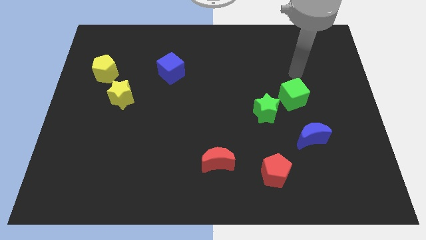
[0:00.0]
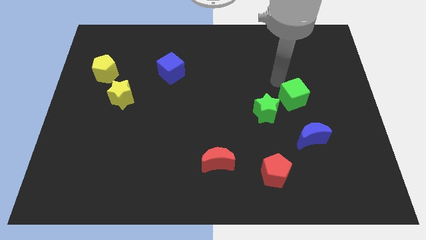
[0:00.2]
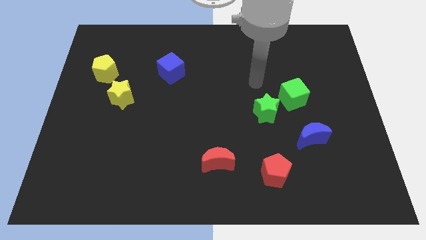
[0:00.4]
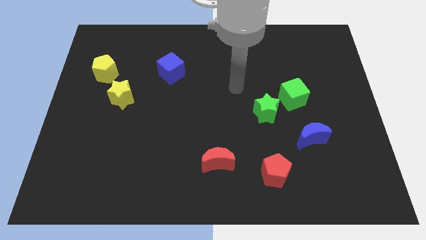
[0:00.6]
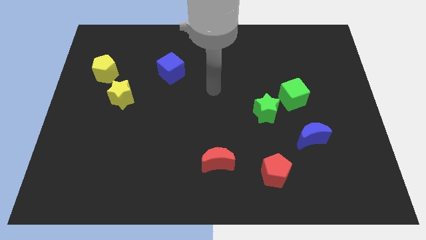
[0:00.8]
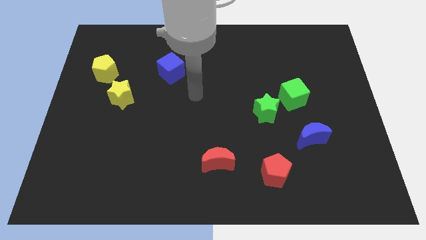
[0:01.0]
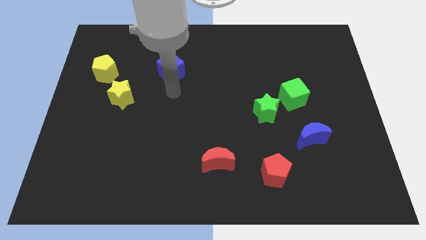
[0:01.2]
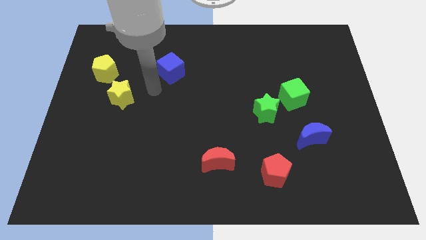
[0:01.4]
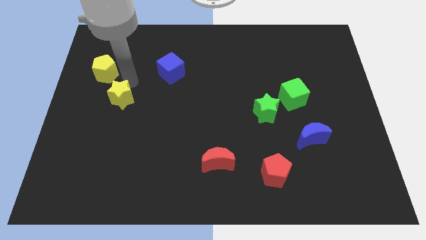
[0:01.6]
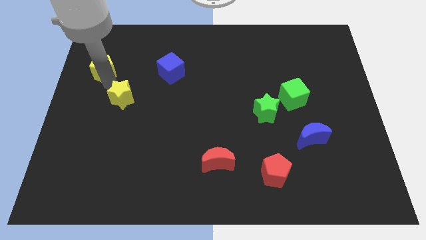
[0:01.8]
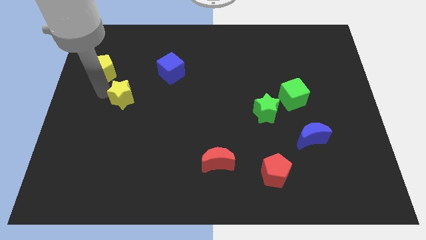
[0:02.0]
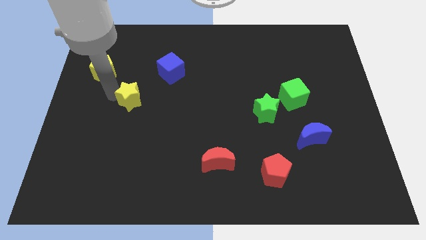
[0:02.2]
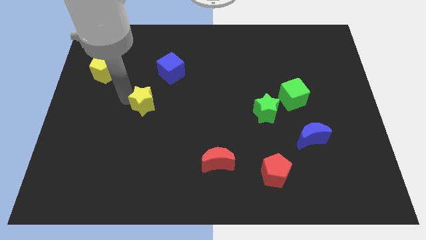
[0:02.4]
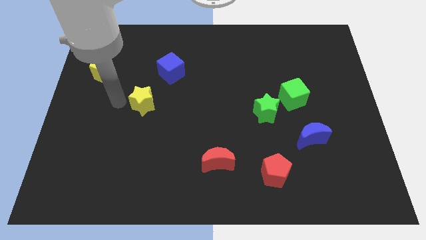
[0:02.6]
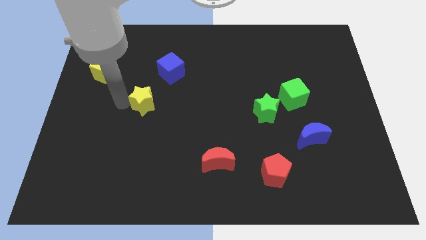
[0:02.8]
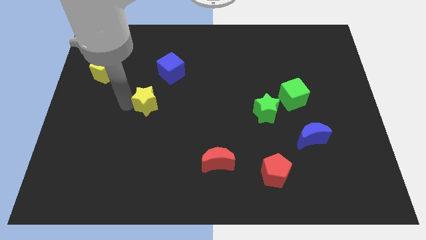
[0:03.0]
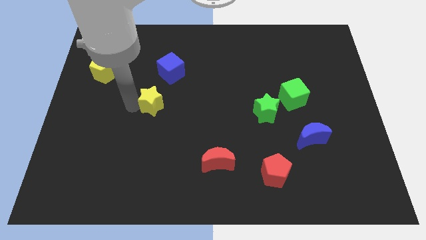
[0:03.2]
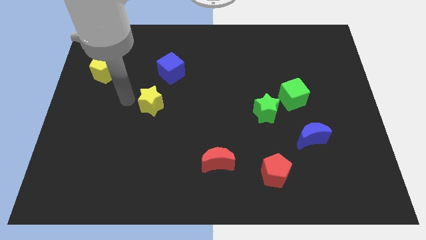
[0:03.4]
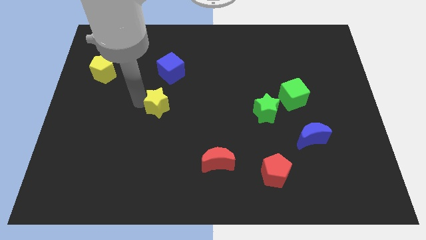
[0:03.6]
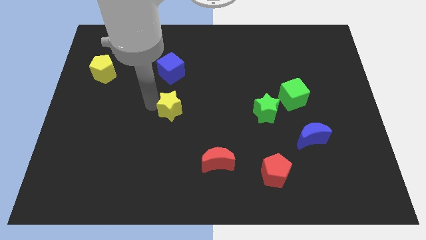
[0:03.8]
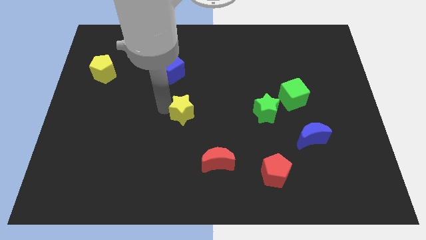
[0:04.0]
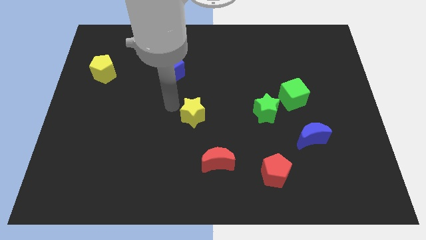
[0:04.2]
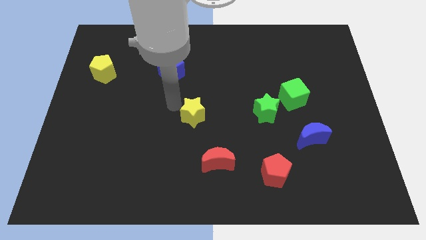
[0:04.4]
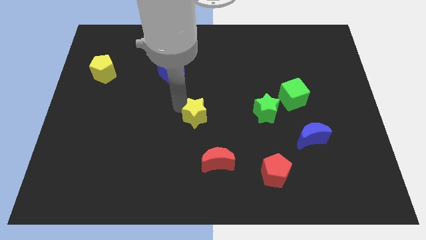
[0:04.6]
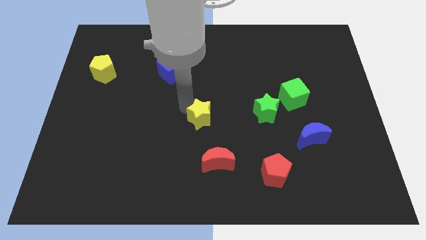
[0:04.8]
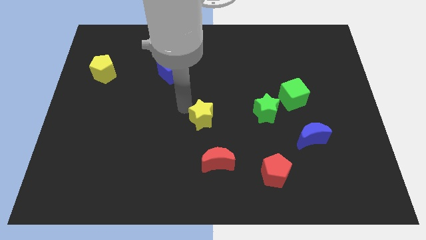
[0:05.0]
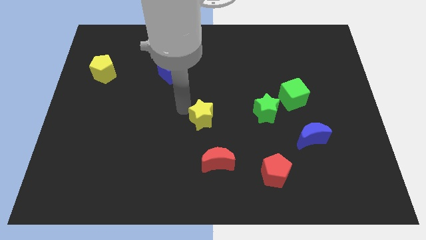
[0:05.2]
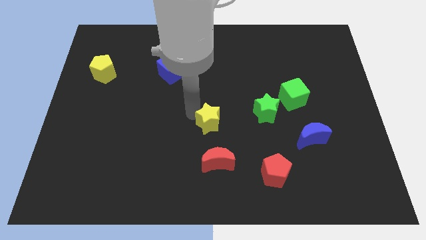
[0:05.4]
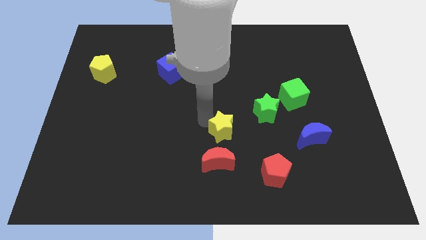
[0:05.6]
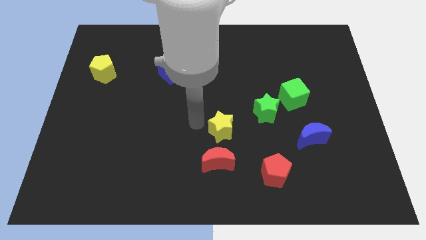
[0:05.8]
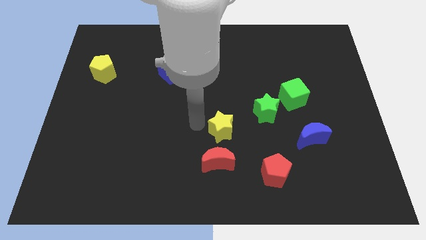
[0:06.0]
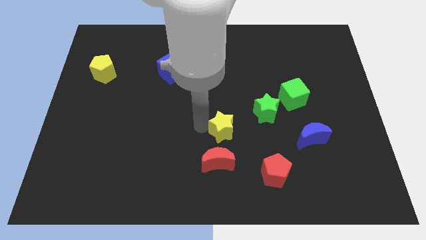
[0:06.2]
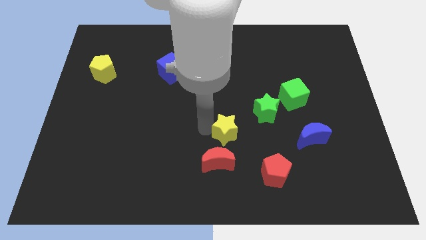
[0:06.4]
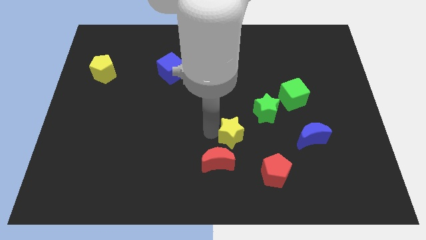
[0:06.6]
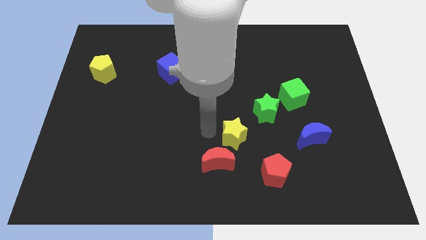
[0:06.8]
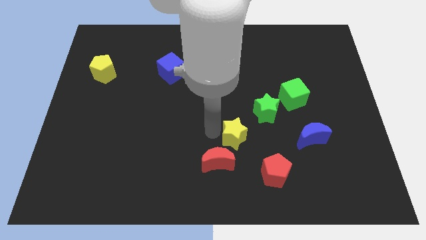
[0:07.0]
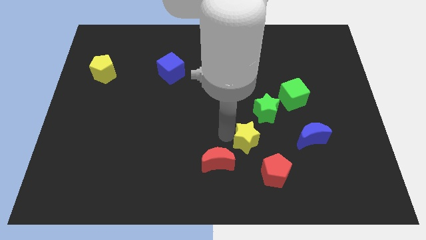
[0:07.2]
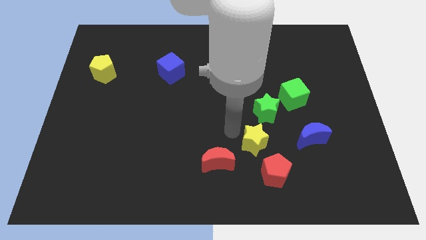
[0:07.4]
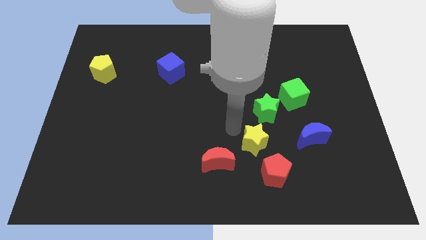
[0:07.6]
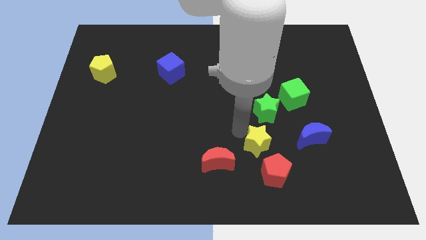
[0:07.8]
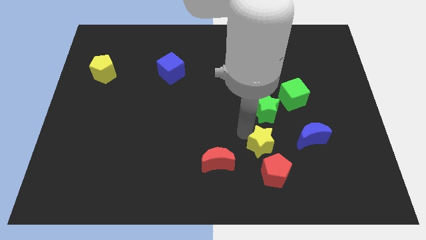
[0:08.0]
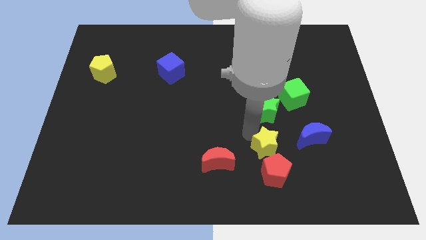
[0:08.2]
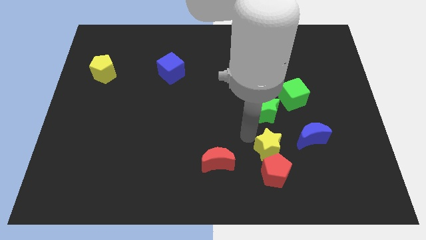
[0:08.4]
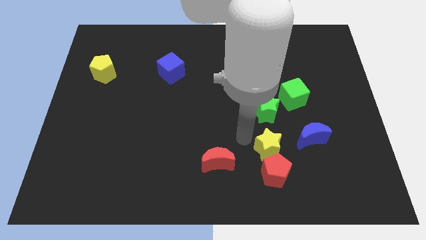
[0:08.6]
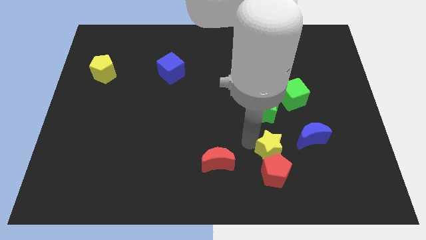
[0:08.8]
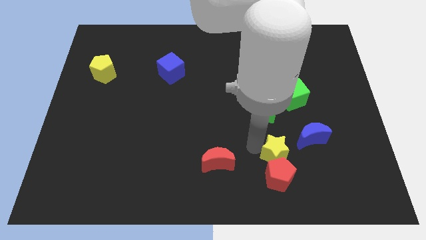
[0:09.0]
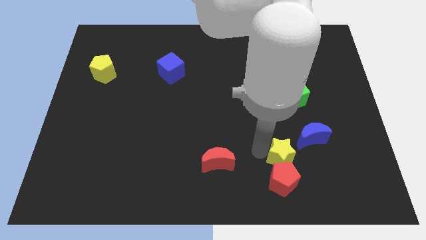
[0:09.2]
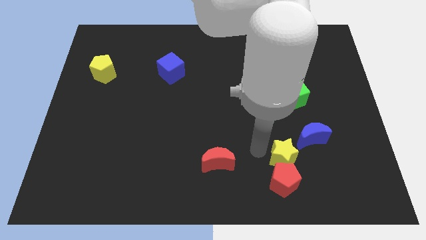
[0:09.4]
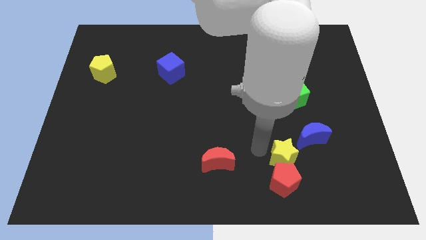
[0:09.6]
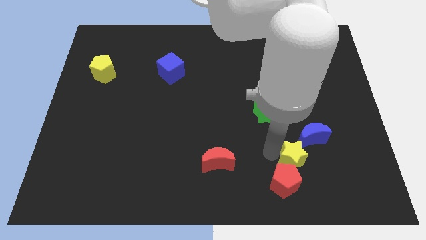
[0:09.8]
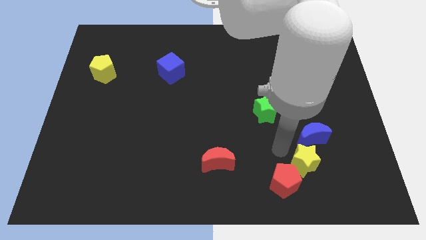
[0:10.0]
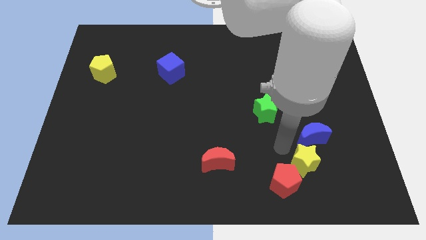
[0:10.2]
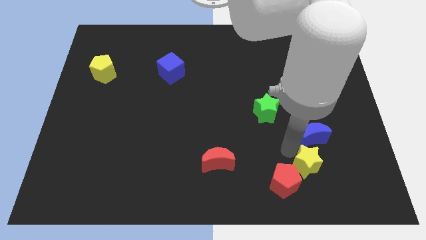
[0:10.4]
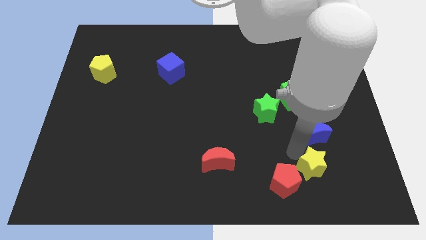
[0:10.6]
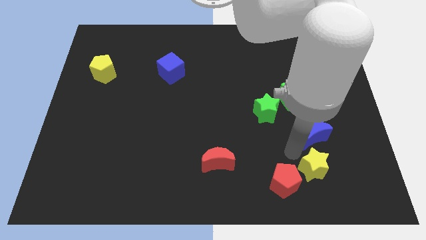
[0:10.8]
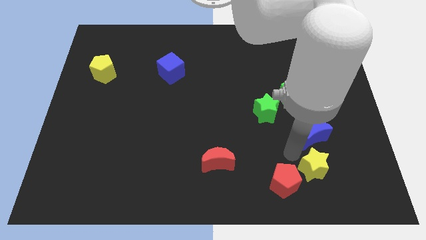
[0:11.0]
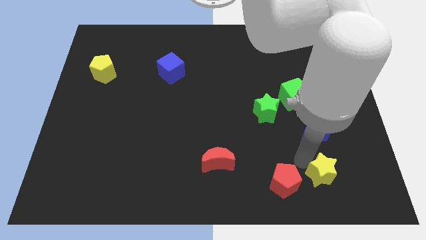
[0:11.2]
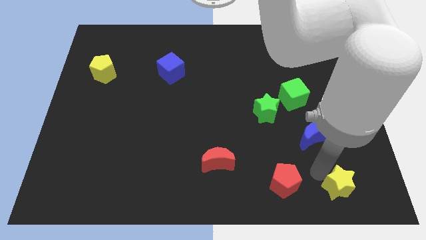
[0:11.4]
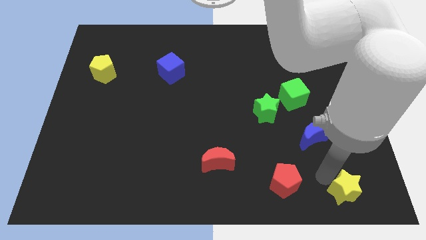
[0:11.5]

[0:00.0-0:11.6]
move the yellow star to the bottom right

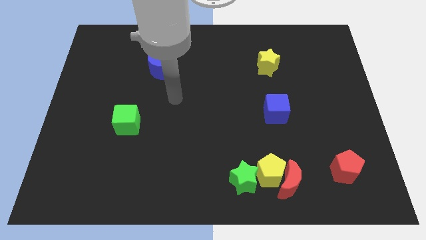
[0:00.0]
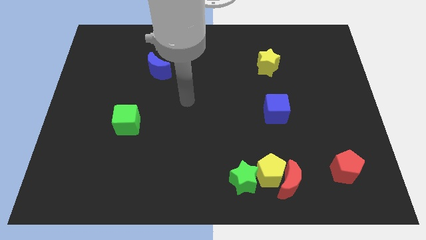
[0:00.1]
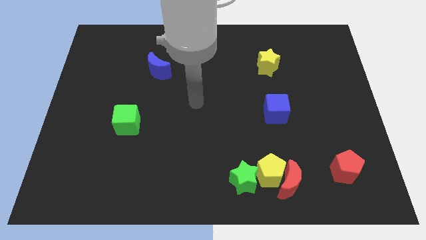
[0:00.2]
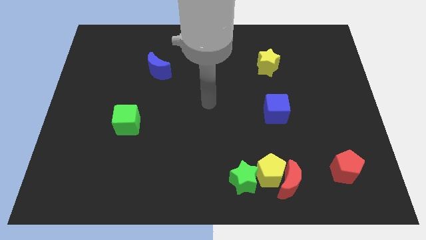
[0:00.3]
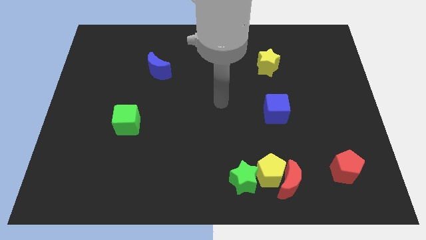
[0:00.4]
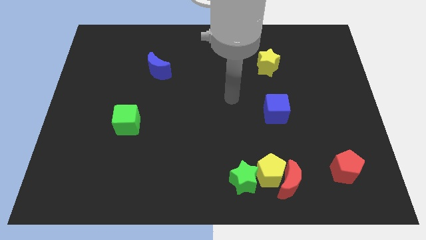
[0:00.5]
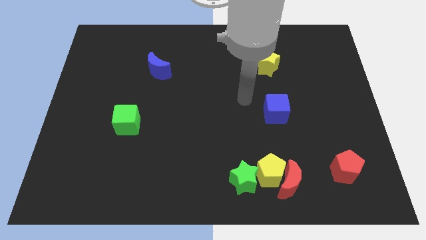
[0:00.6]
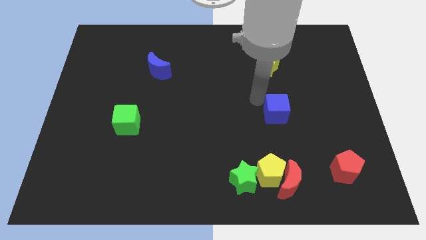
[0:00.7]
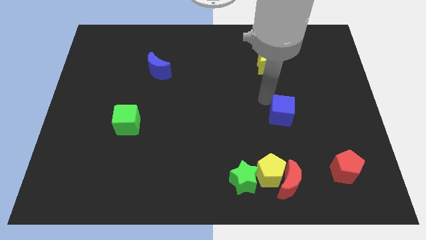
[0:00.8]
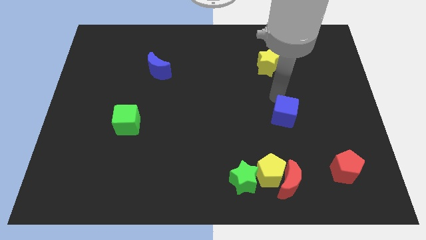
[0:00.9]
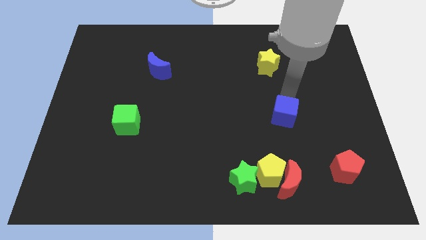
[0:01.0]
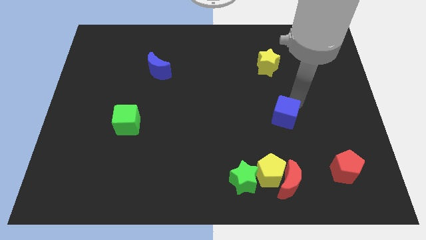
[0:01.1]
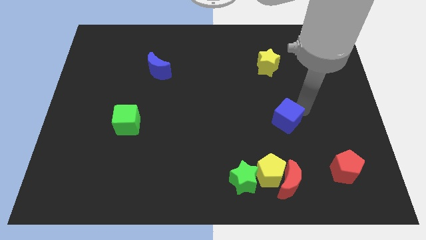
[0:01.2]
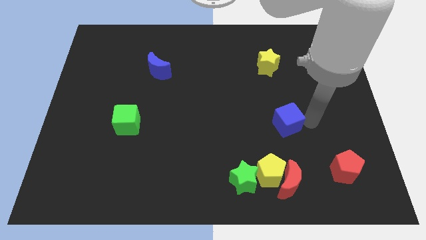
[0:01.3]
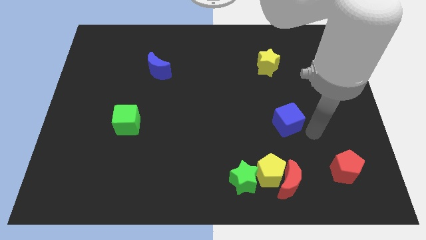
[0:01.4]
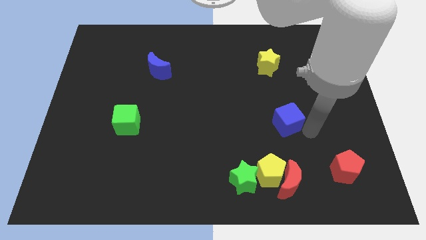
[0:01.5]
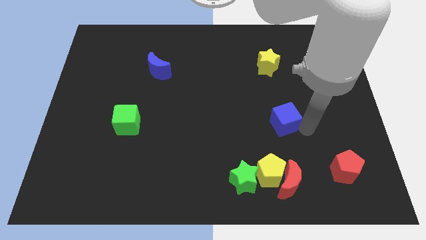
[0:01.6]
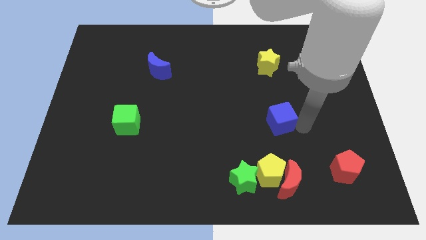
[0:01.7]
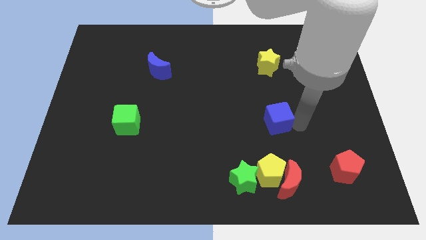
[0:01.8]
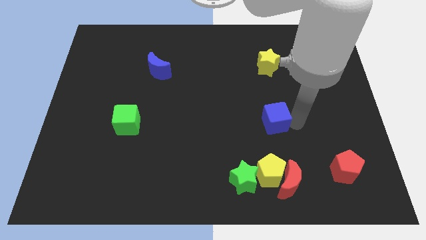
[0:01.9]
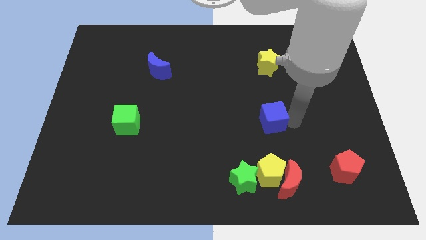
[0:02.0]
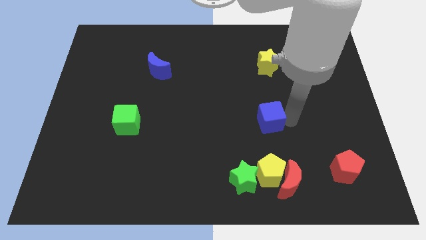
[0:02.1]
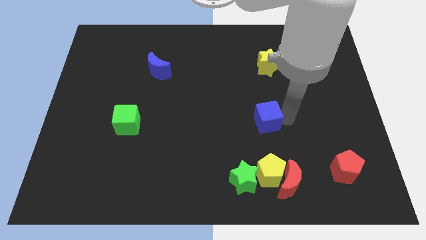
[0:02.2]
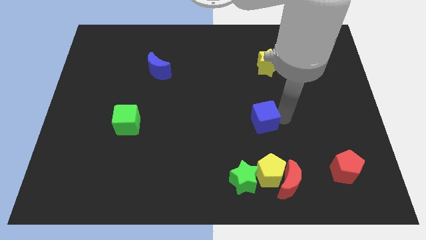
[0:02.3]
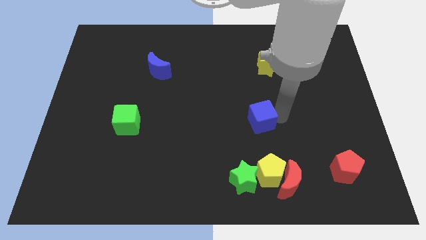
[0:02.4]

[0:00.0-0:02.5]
move the blue cube to the center
